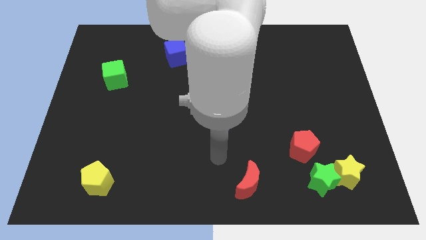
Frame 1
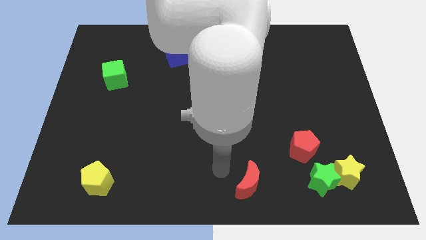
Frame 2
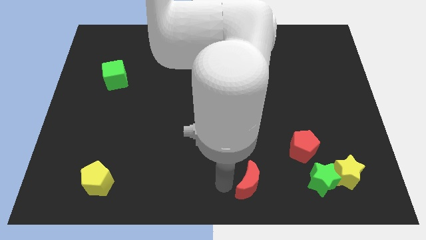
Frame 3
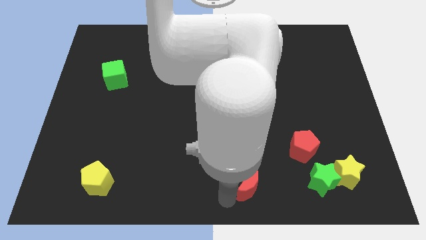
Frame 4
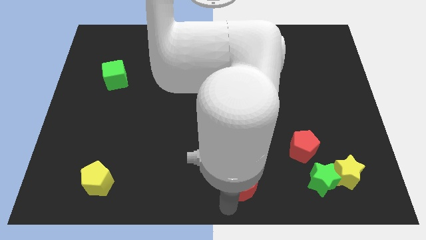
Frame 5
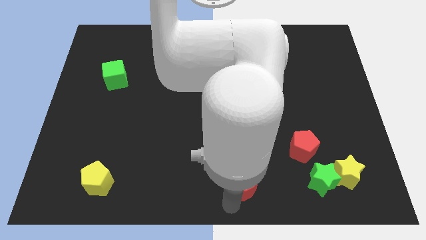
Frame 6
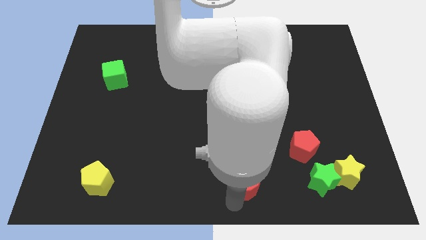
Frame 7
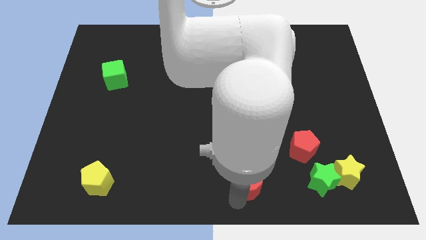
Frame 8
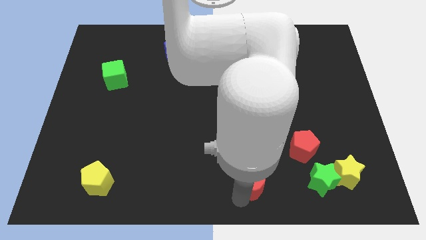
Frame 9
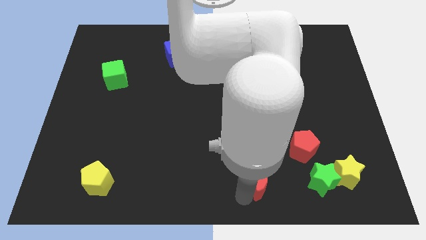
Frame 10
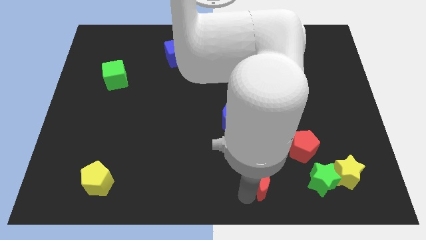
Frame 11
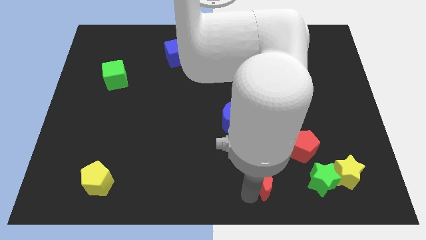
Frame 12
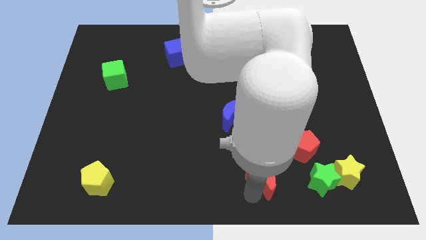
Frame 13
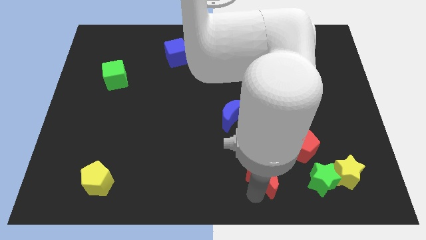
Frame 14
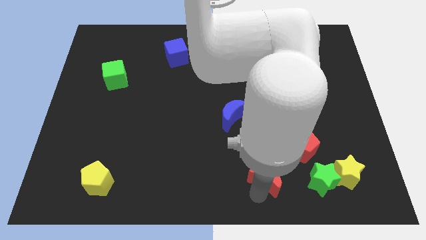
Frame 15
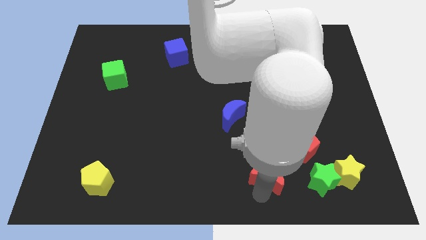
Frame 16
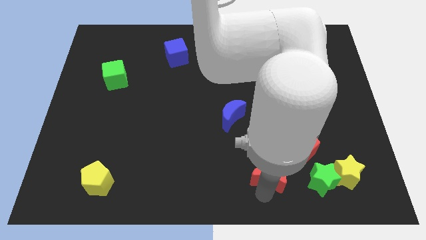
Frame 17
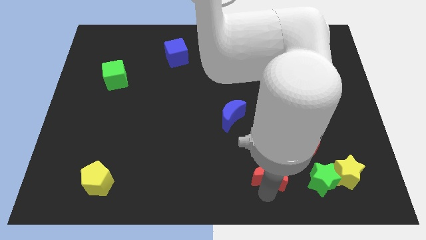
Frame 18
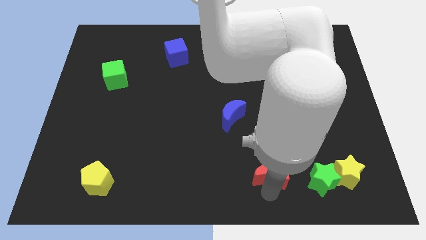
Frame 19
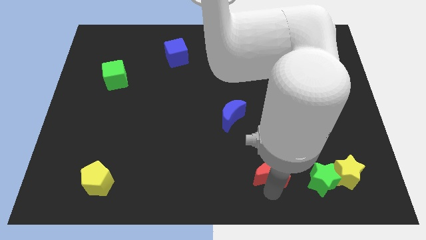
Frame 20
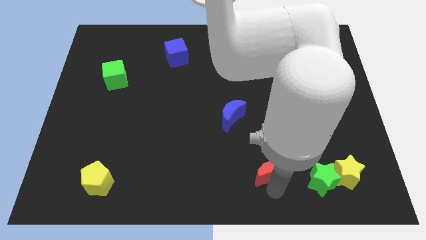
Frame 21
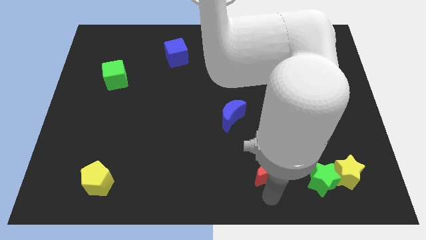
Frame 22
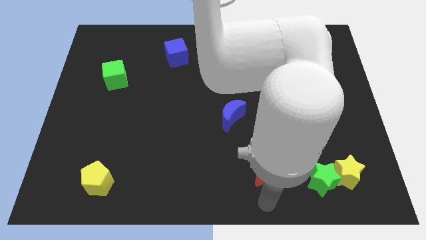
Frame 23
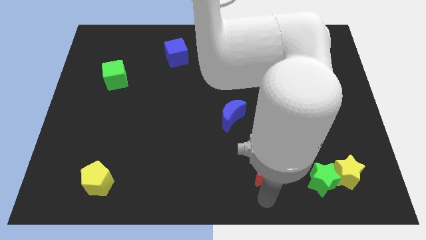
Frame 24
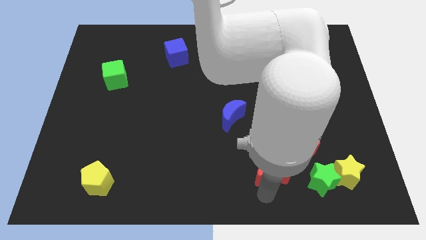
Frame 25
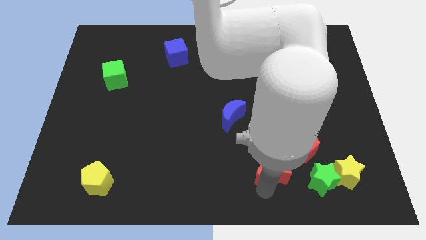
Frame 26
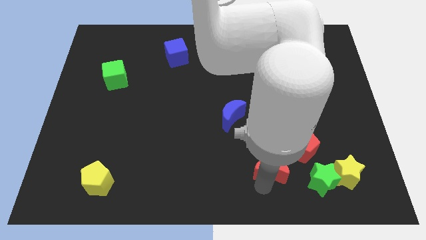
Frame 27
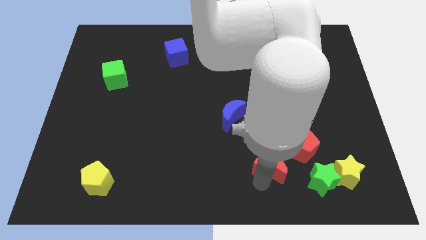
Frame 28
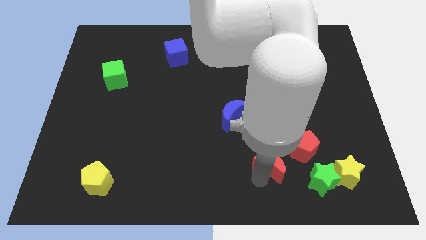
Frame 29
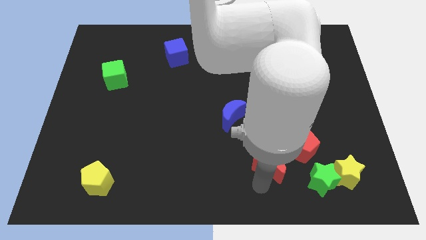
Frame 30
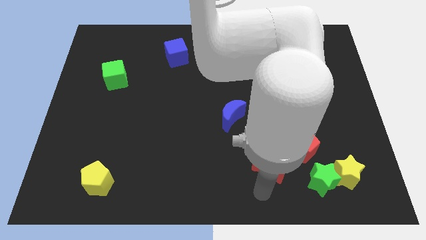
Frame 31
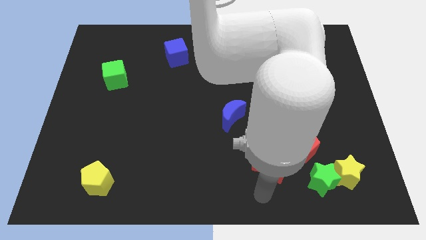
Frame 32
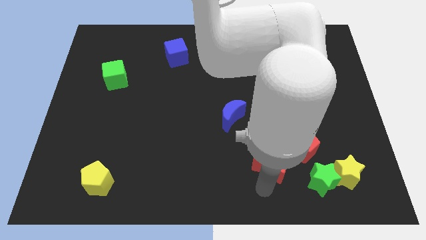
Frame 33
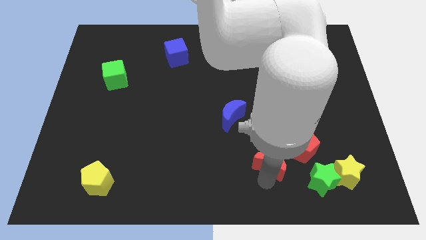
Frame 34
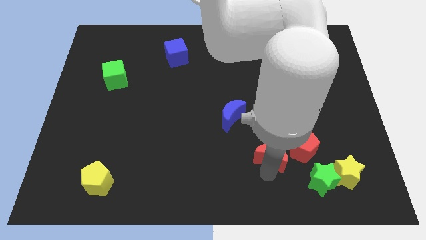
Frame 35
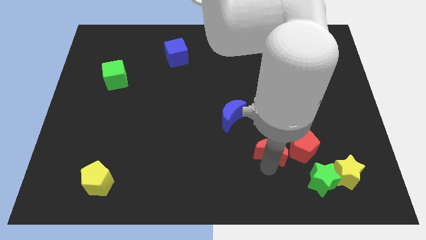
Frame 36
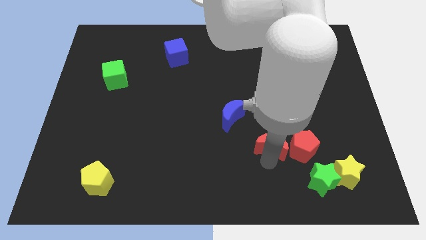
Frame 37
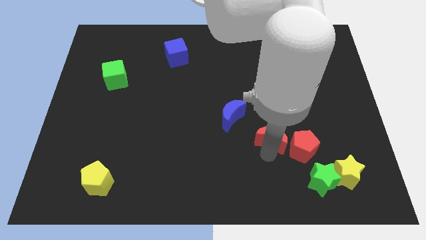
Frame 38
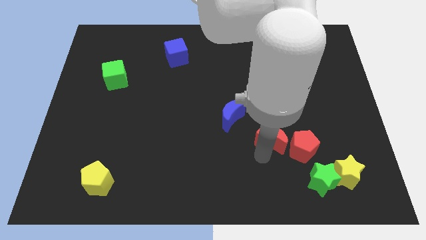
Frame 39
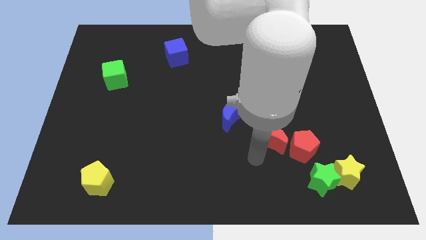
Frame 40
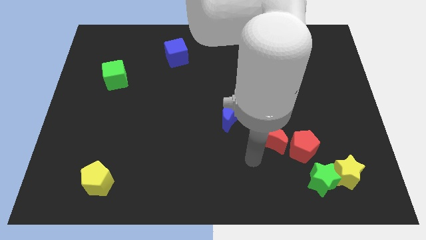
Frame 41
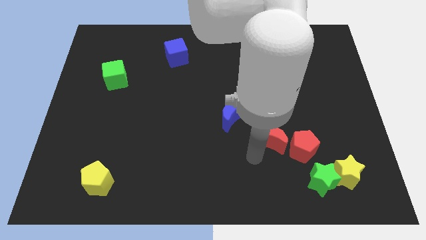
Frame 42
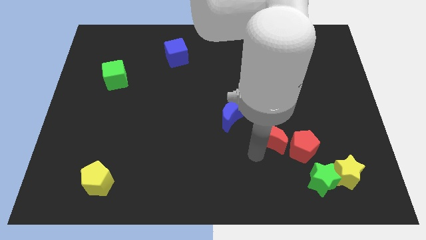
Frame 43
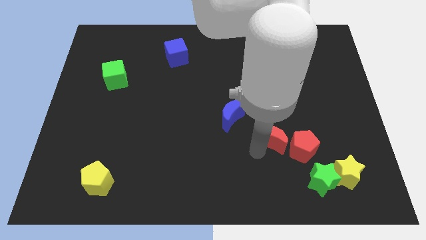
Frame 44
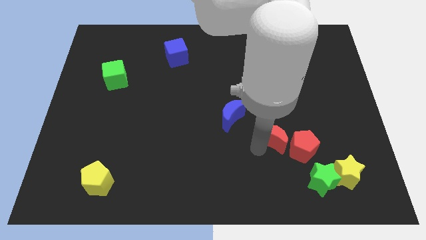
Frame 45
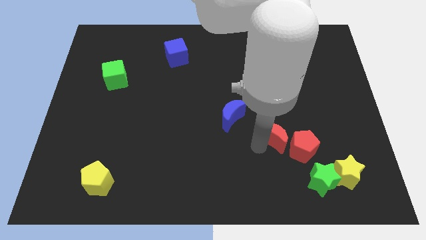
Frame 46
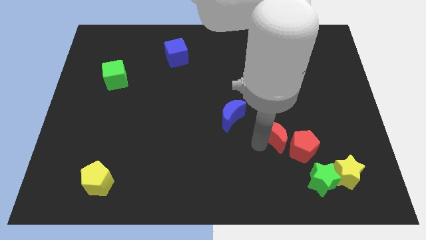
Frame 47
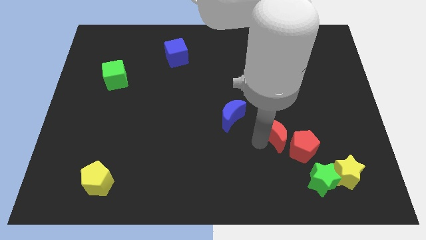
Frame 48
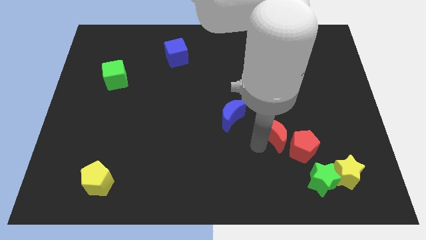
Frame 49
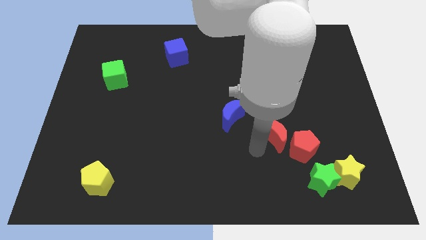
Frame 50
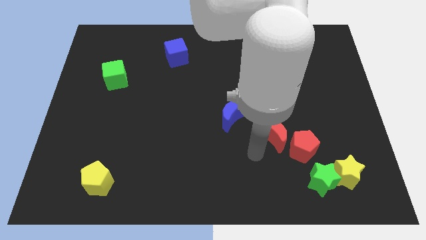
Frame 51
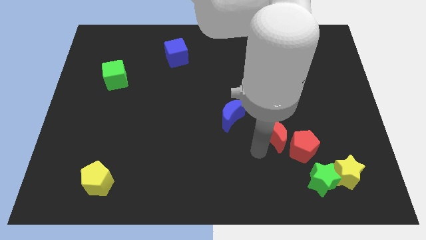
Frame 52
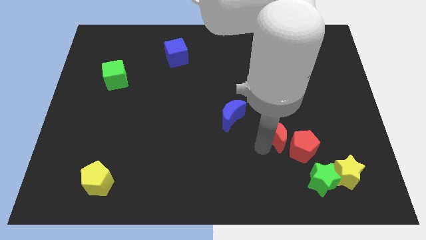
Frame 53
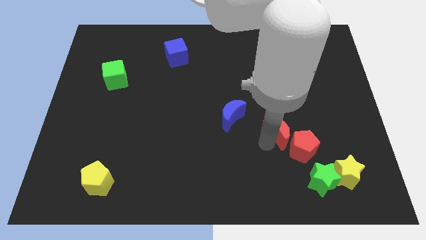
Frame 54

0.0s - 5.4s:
slide the red moon to the top side of the red pentagon

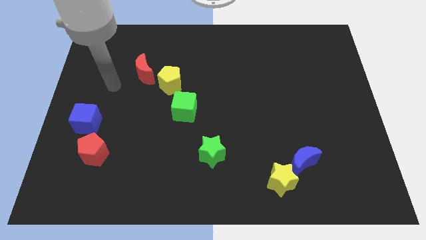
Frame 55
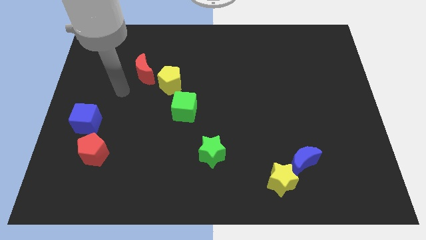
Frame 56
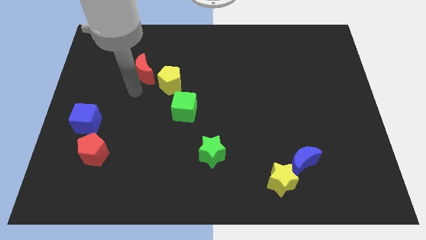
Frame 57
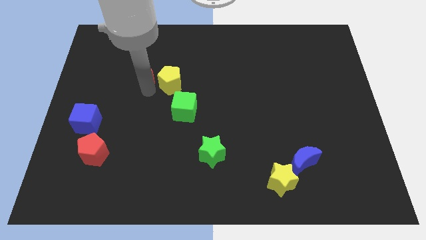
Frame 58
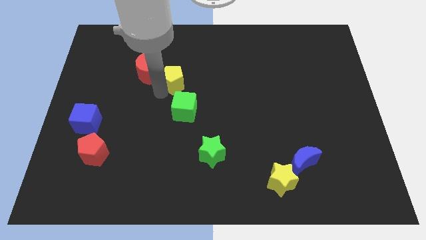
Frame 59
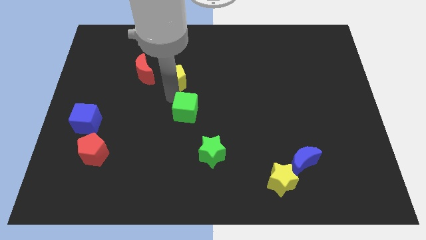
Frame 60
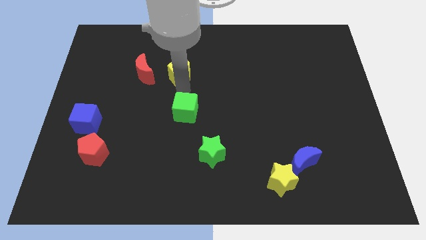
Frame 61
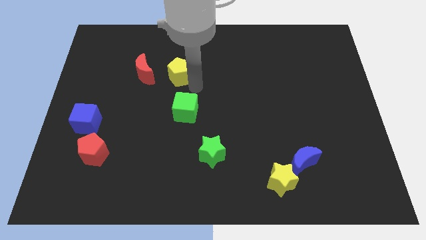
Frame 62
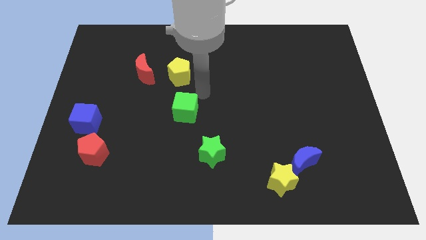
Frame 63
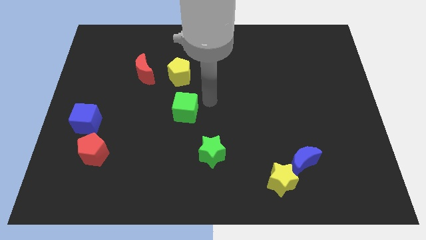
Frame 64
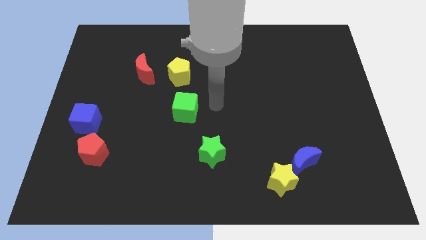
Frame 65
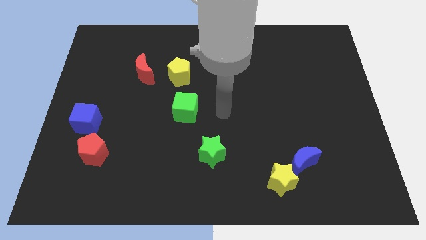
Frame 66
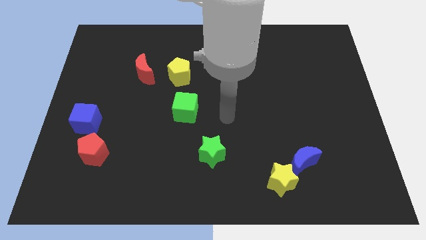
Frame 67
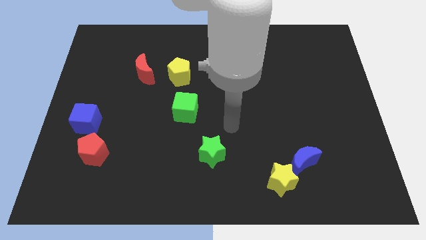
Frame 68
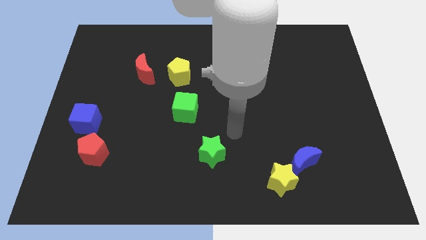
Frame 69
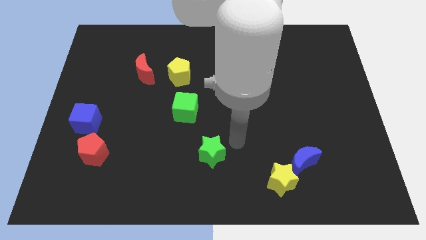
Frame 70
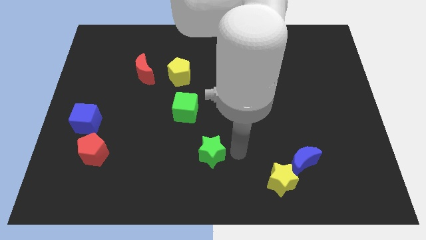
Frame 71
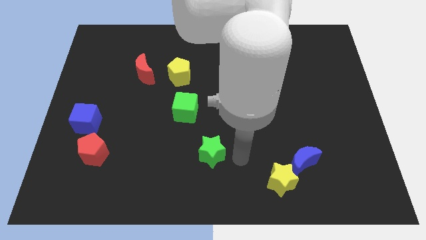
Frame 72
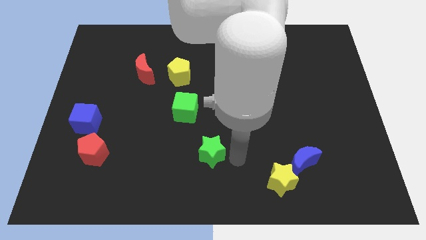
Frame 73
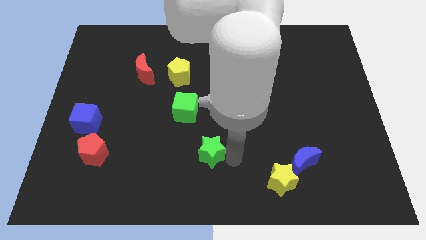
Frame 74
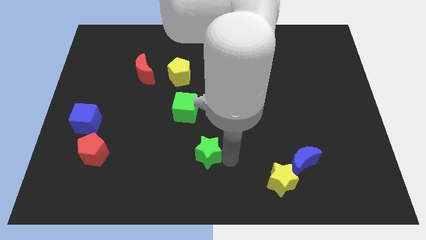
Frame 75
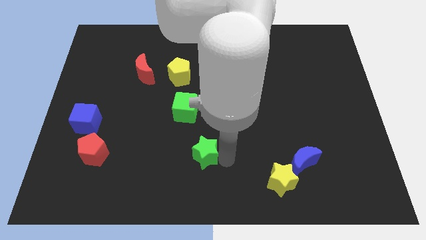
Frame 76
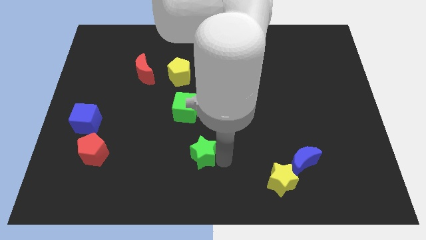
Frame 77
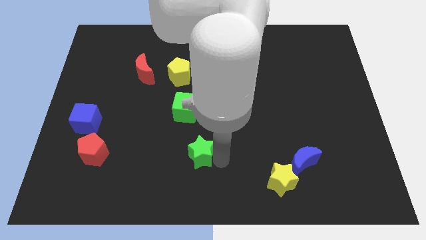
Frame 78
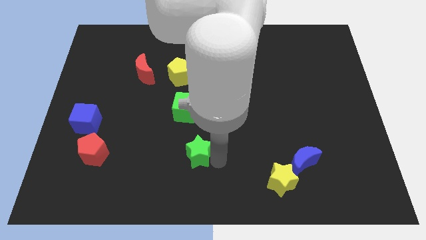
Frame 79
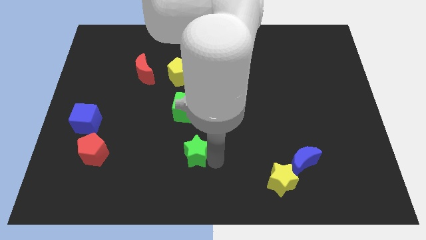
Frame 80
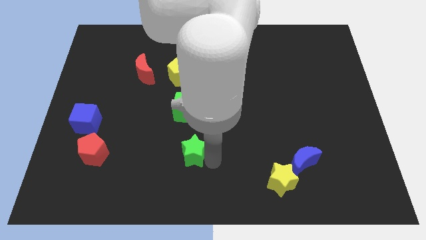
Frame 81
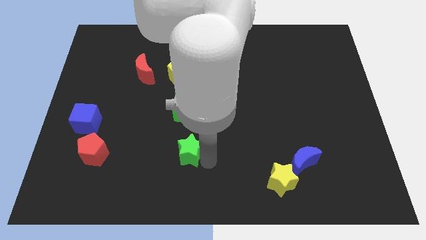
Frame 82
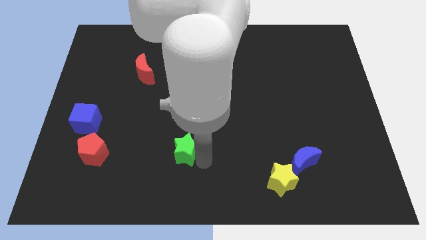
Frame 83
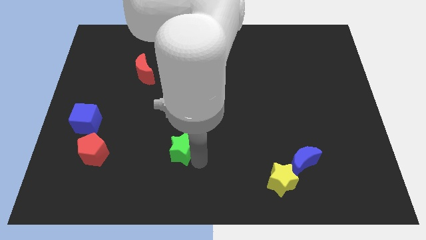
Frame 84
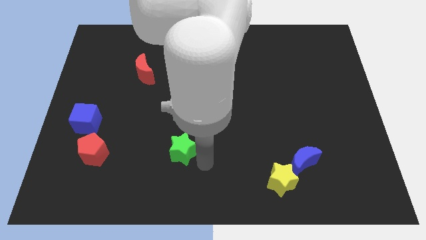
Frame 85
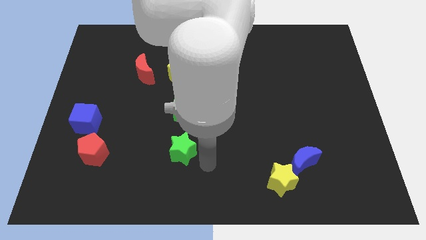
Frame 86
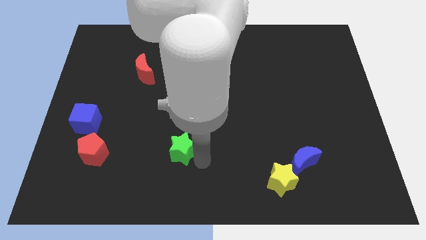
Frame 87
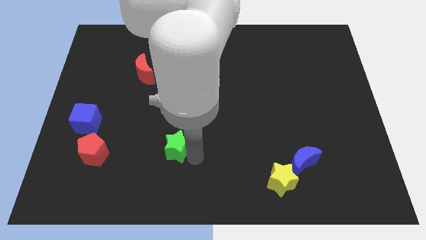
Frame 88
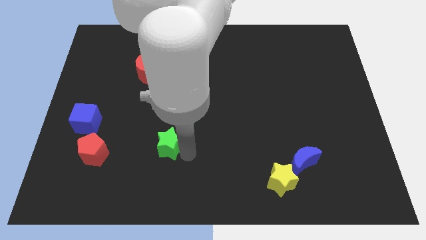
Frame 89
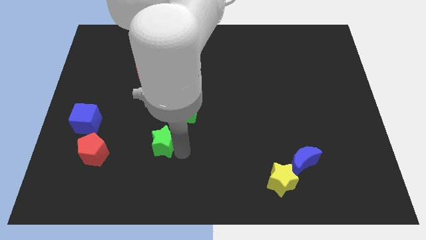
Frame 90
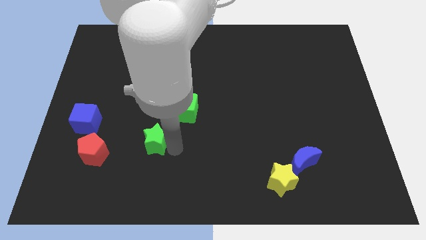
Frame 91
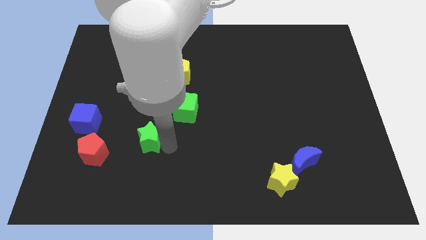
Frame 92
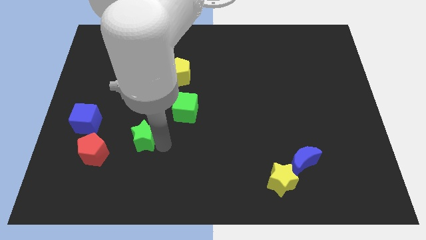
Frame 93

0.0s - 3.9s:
move the green star to the top right side of the red pentagon
